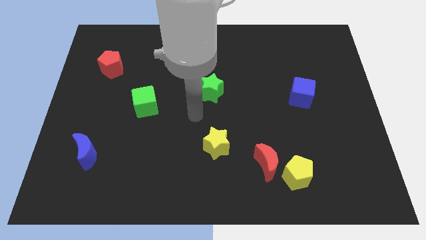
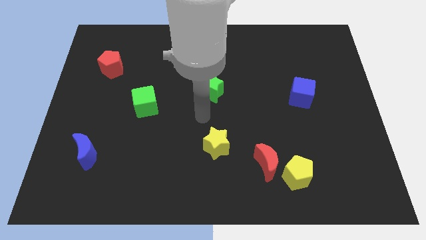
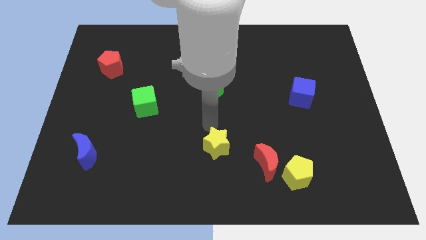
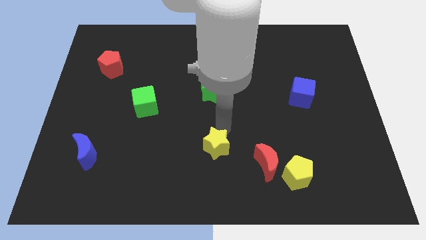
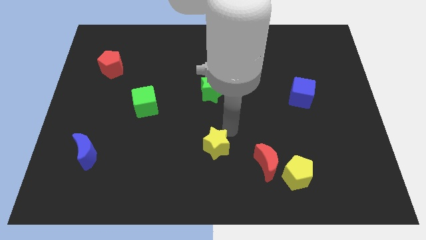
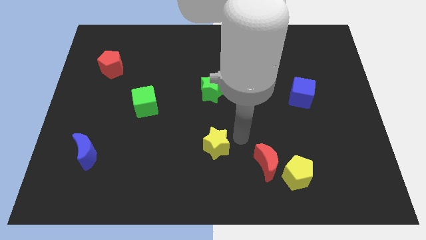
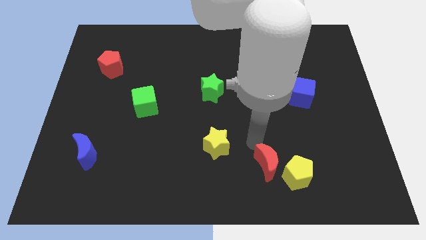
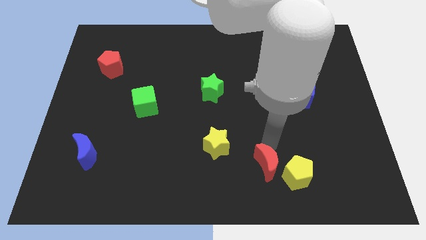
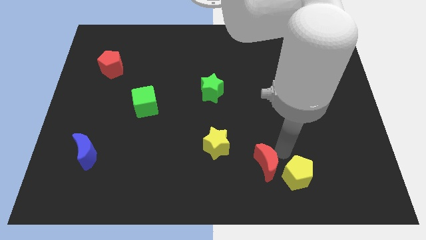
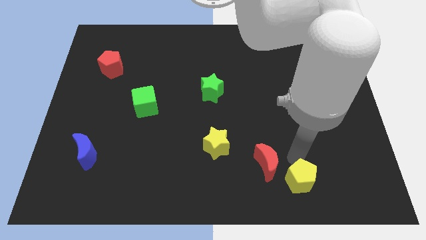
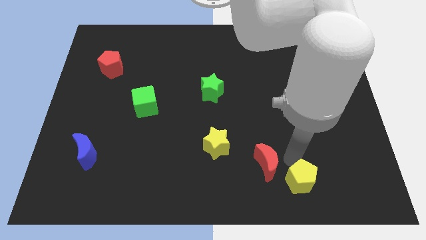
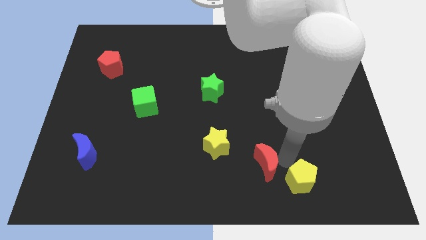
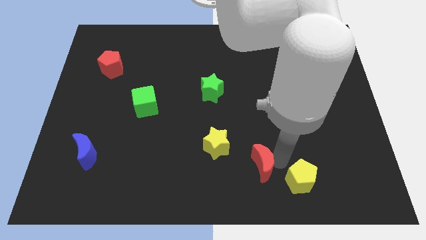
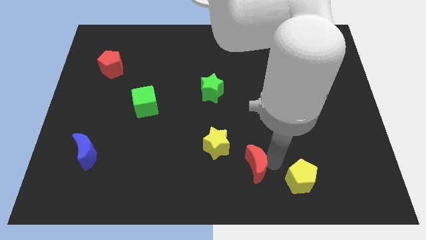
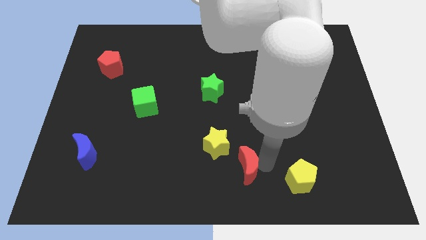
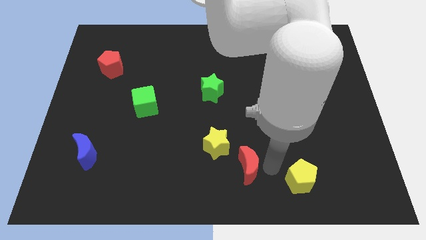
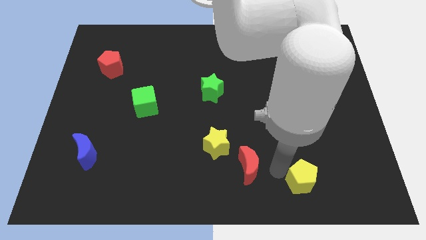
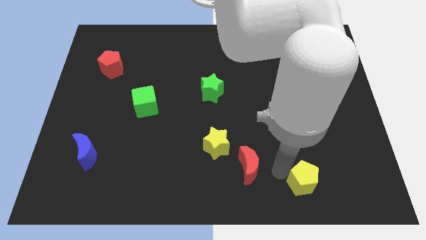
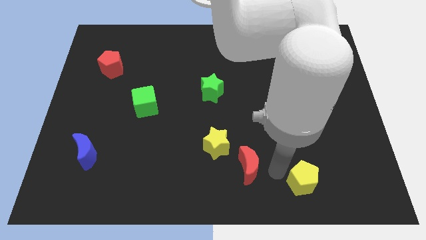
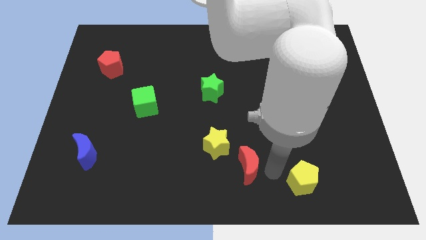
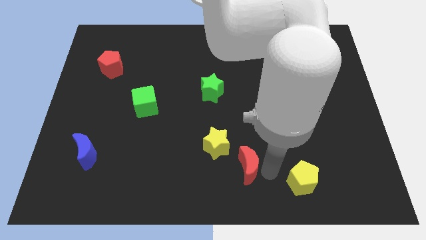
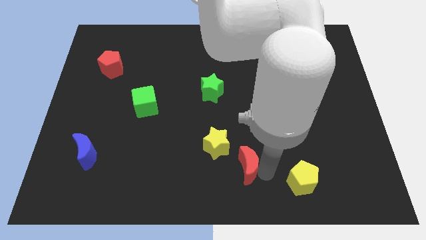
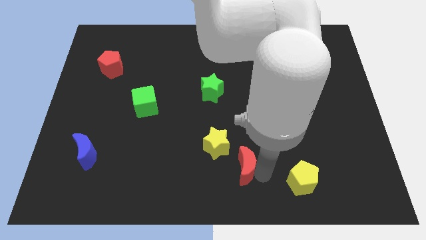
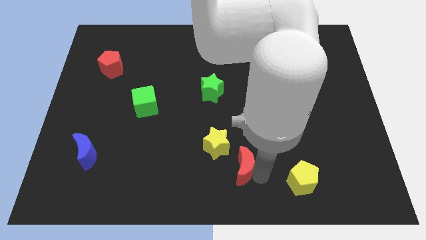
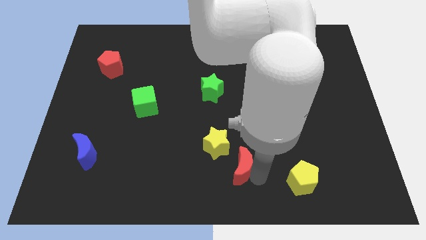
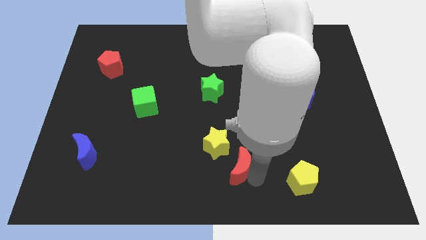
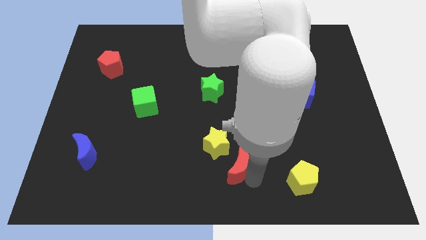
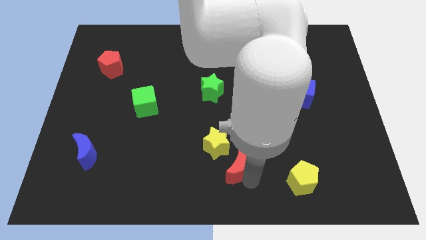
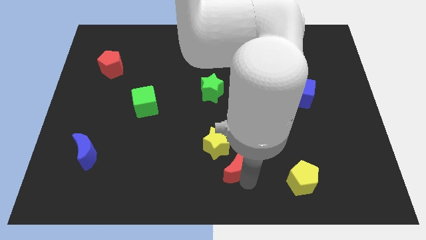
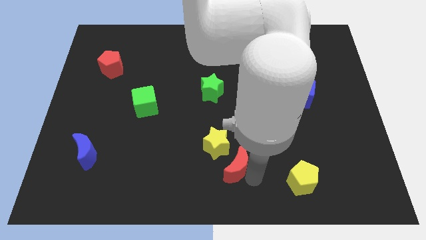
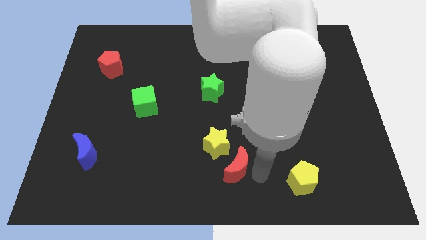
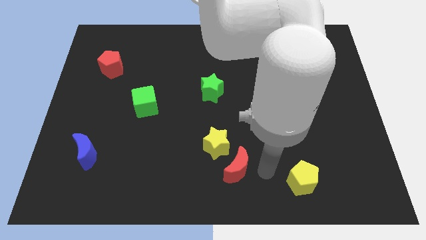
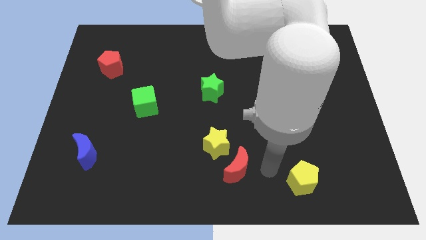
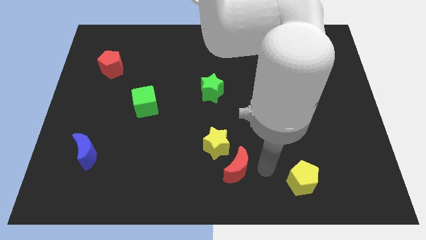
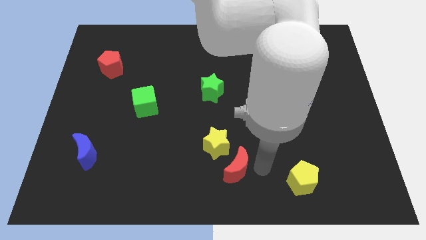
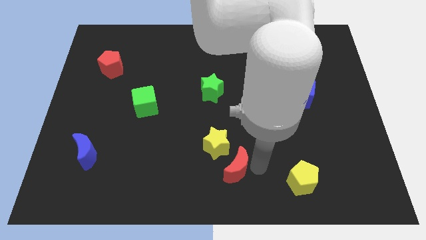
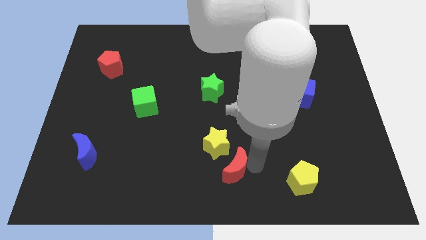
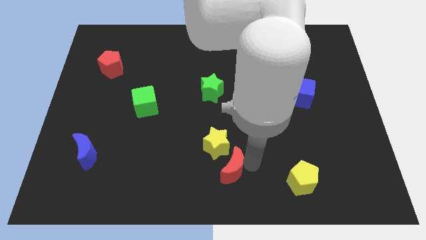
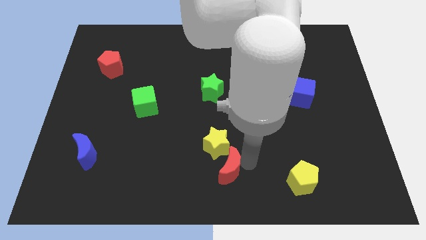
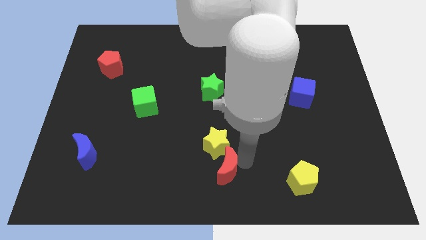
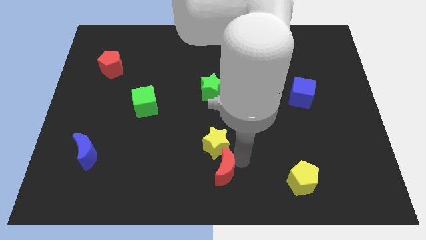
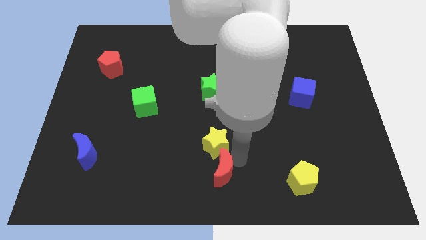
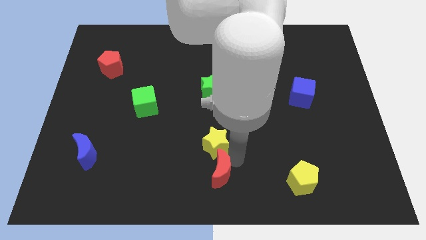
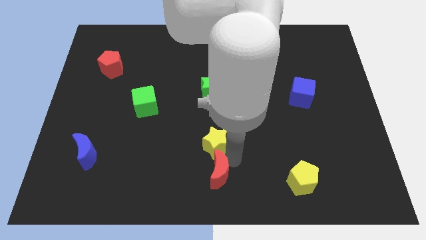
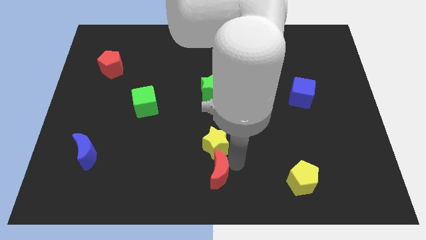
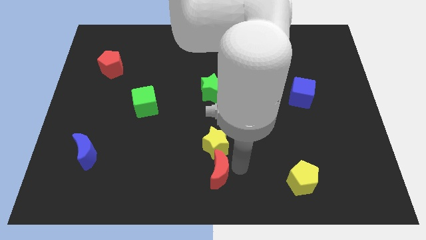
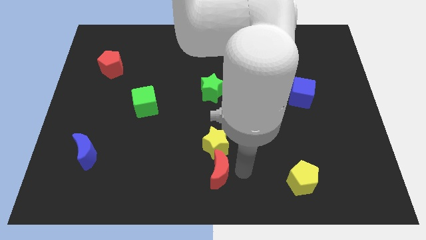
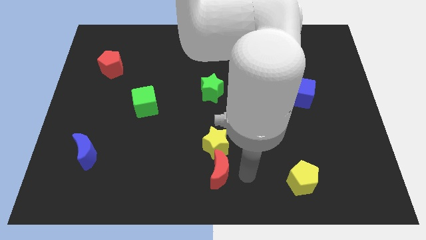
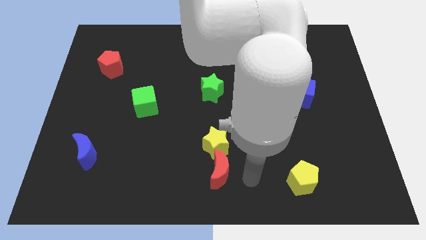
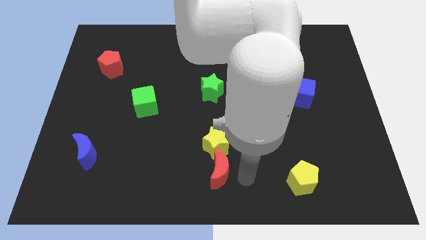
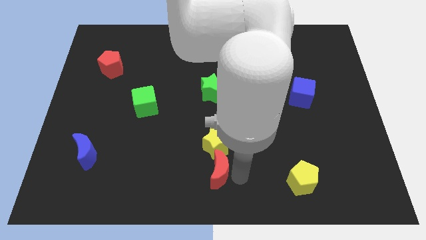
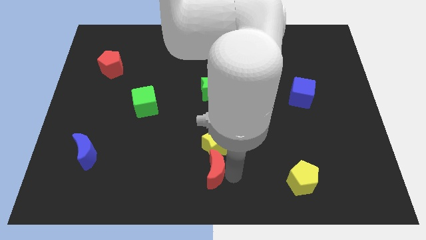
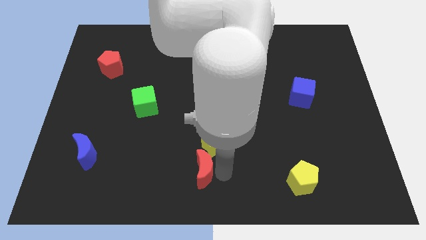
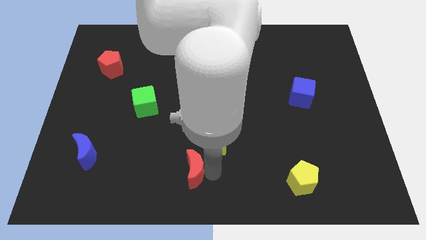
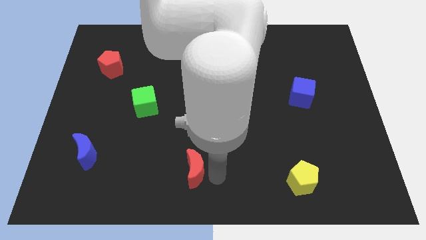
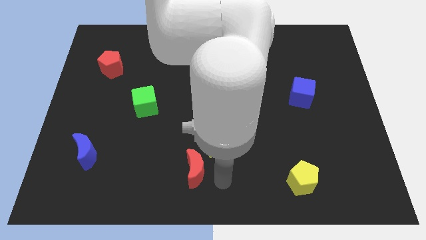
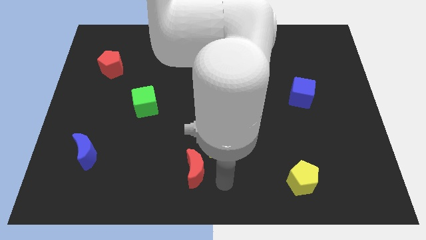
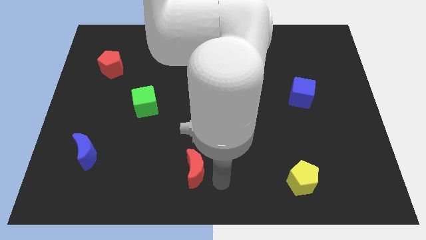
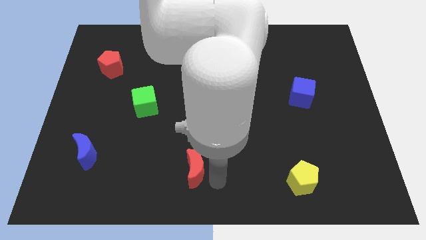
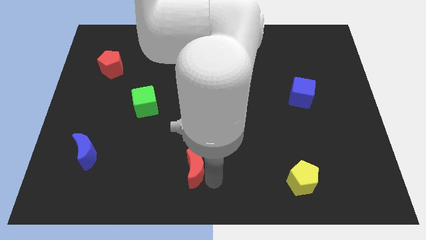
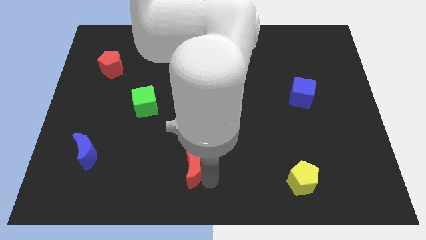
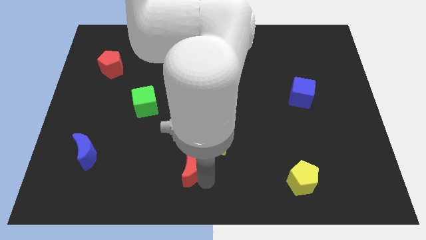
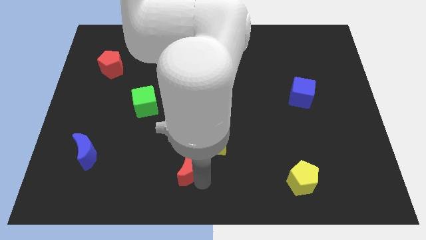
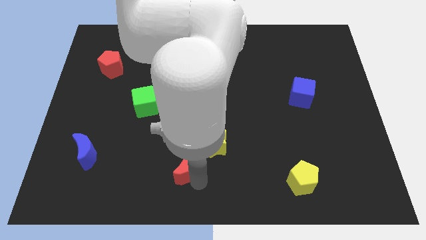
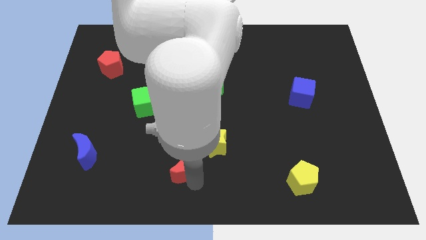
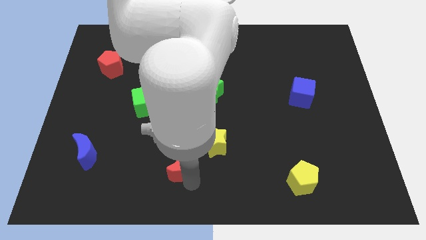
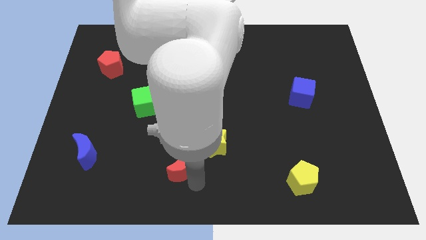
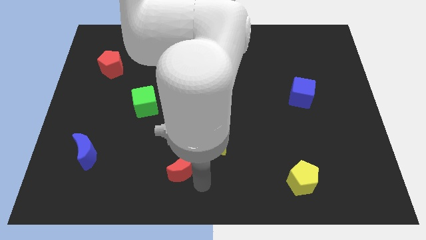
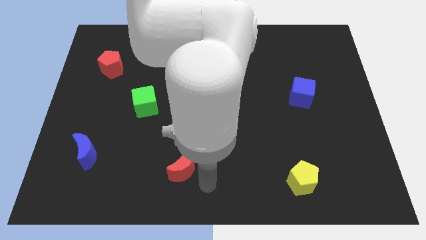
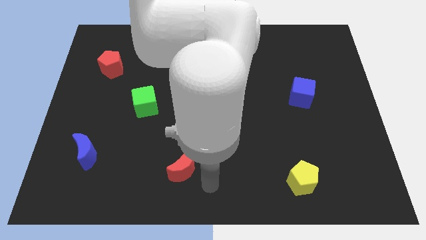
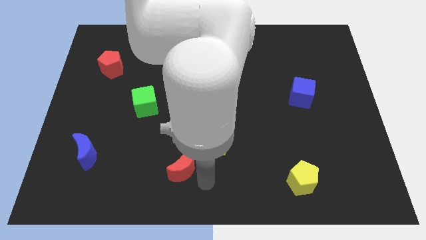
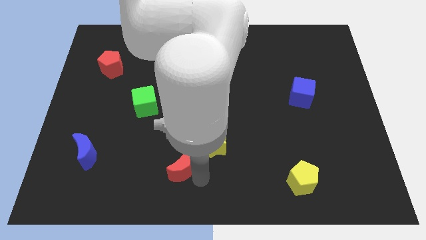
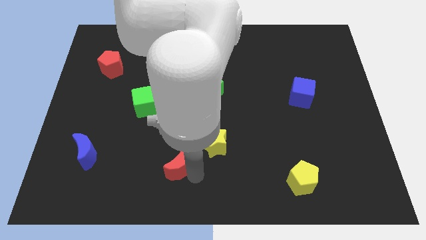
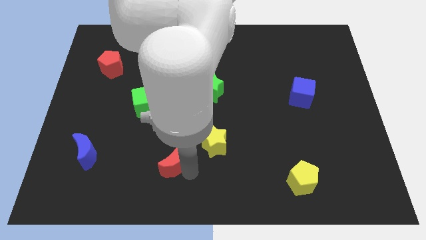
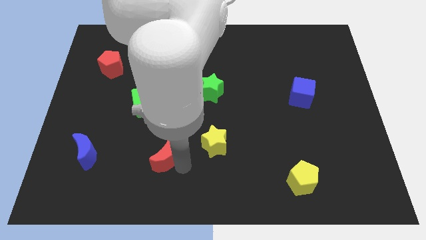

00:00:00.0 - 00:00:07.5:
slide the red moon left

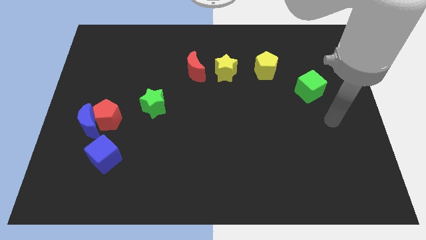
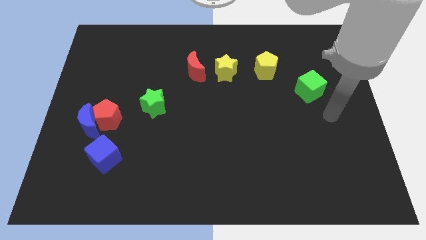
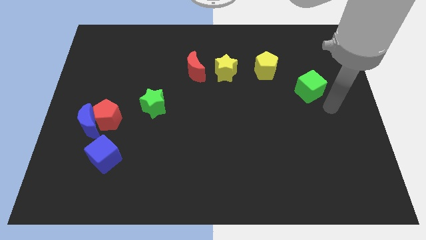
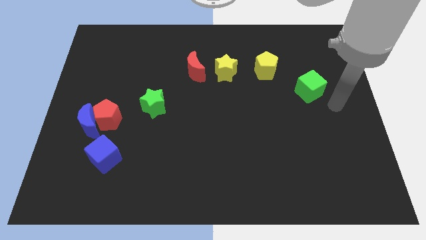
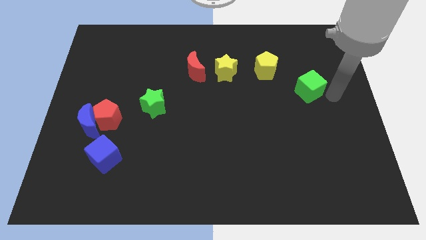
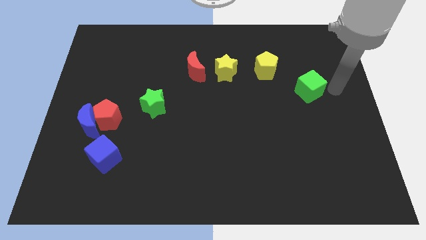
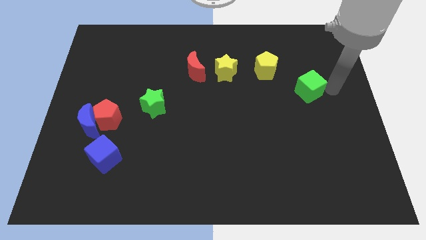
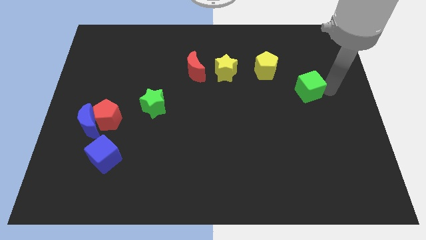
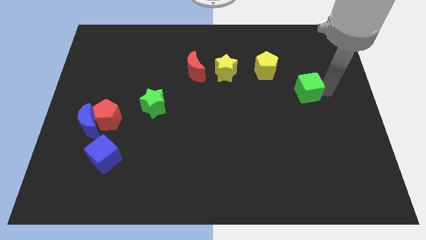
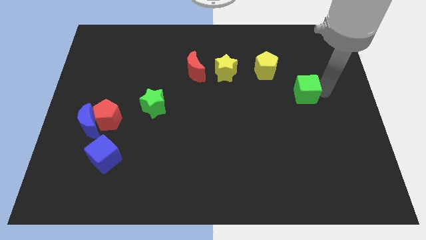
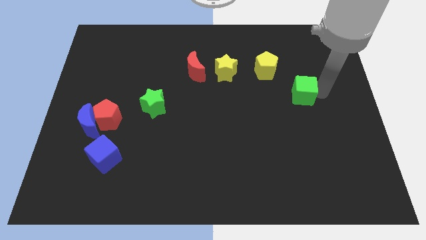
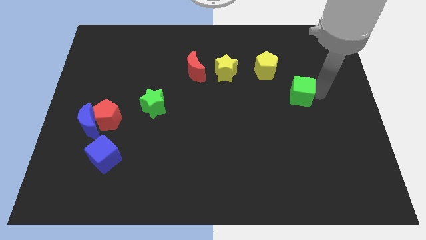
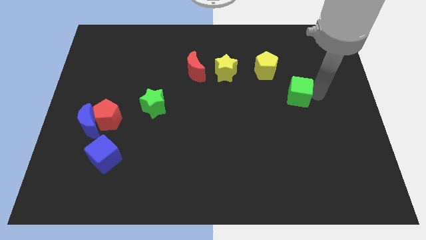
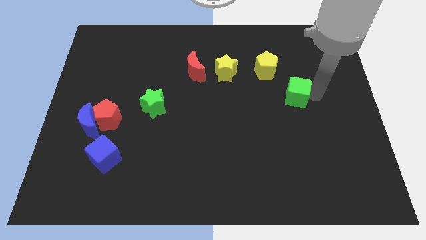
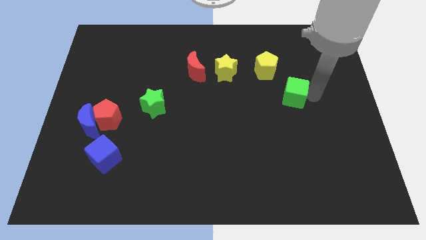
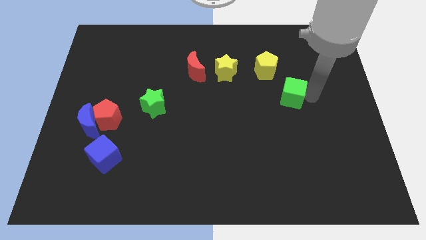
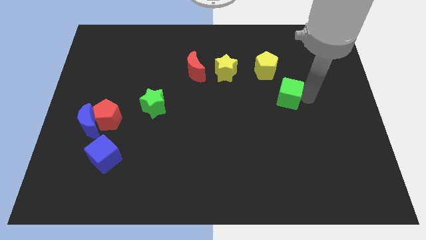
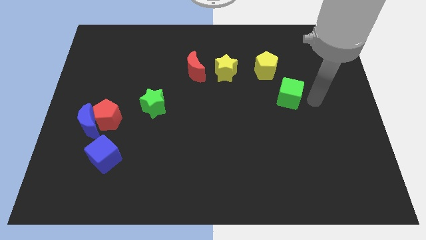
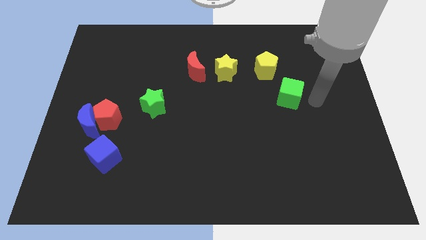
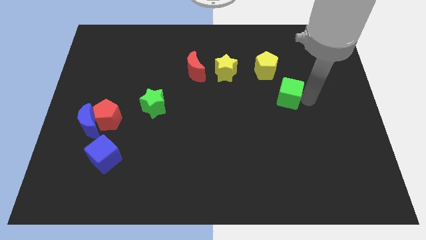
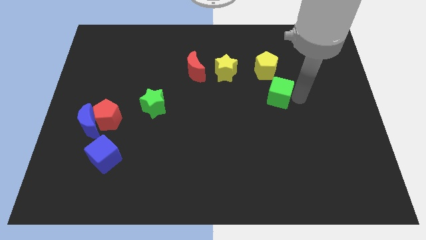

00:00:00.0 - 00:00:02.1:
slide the green cube left a bit
